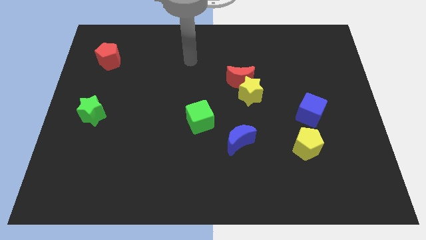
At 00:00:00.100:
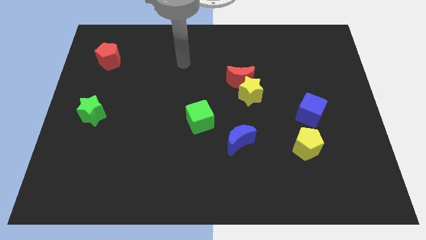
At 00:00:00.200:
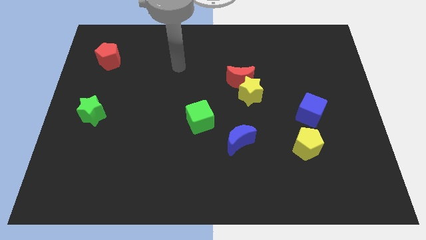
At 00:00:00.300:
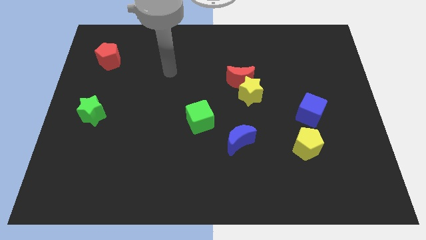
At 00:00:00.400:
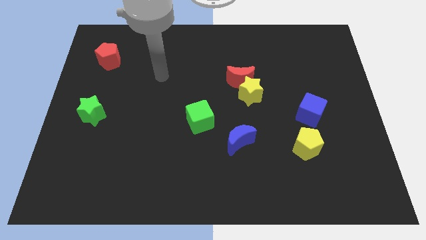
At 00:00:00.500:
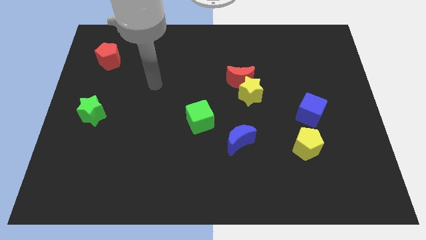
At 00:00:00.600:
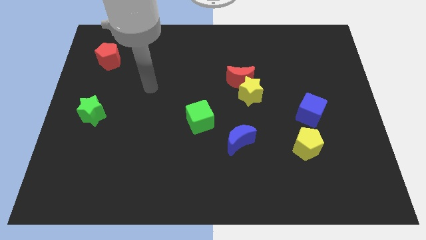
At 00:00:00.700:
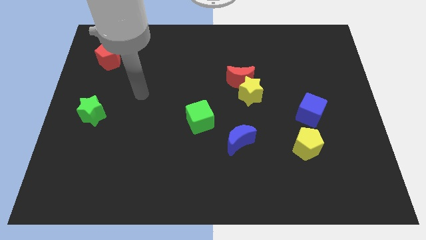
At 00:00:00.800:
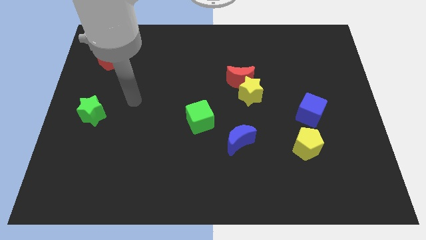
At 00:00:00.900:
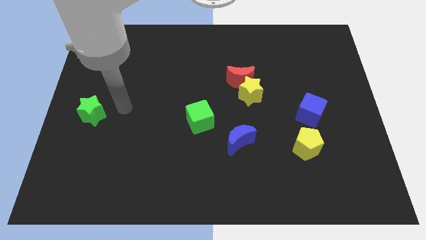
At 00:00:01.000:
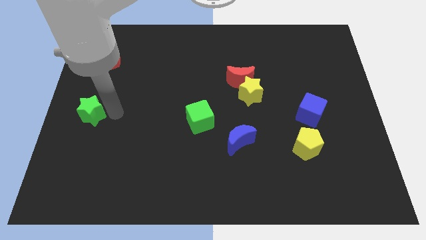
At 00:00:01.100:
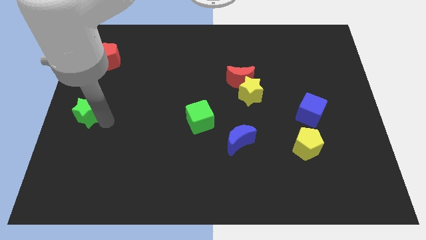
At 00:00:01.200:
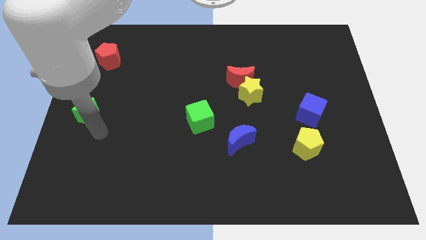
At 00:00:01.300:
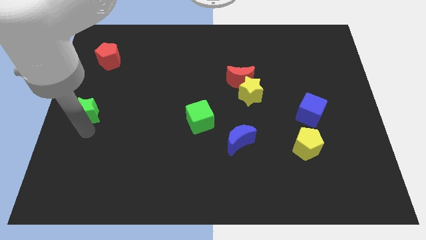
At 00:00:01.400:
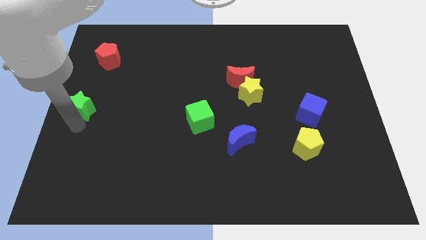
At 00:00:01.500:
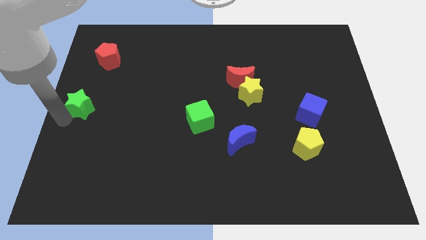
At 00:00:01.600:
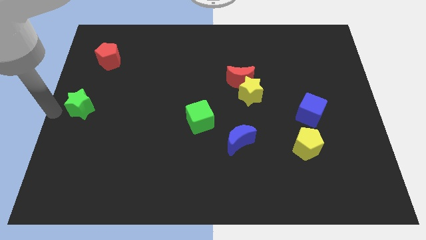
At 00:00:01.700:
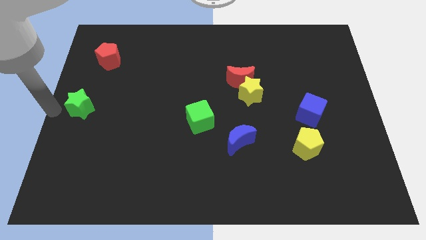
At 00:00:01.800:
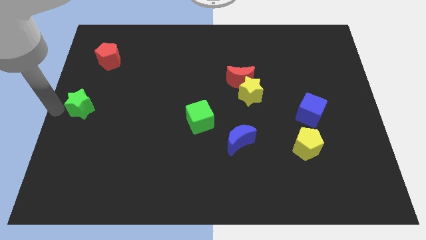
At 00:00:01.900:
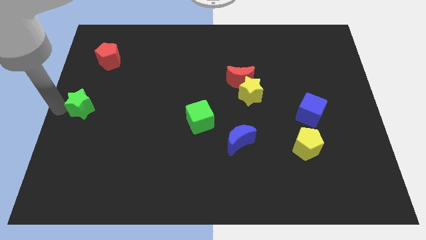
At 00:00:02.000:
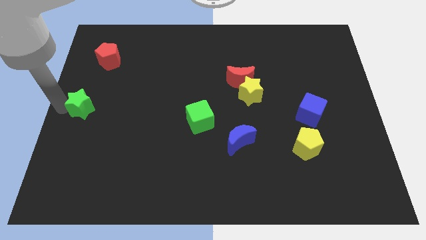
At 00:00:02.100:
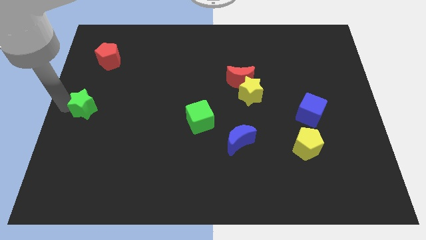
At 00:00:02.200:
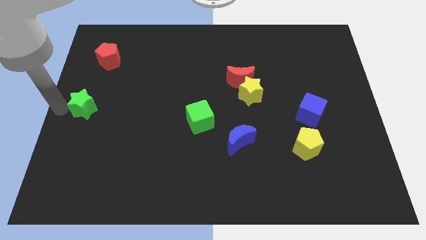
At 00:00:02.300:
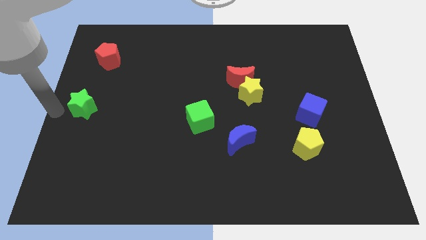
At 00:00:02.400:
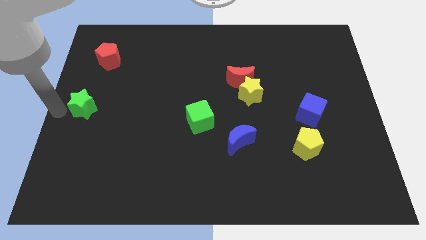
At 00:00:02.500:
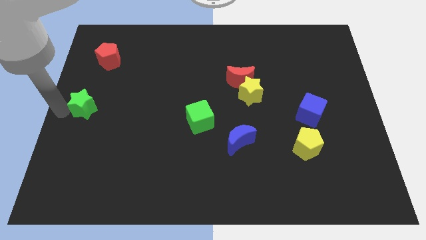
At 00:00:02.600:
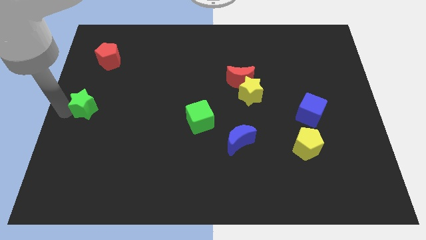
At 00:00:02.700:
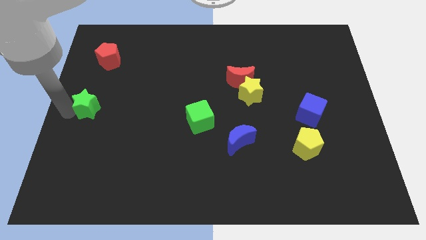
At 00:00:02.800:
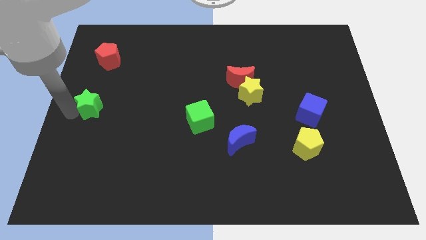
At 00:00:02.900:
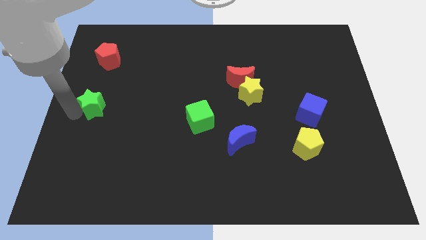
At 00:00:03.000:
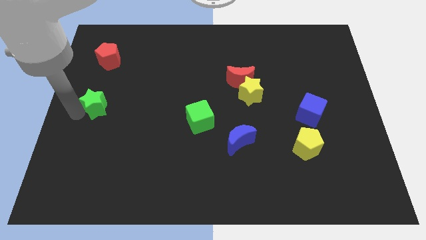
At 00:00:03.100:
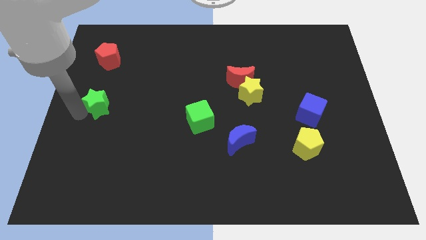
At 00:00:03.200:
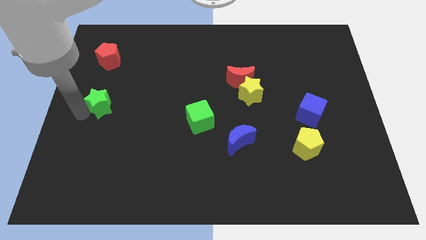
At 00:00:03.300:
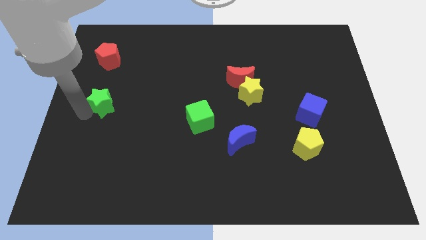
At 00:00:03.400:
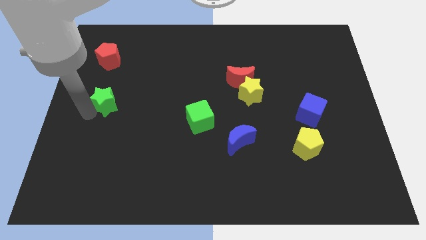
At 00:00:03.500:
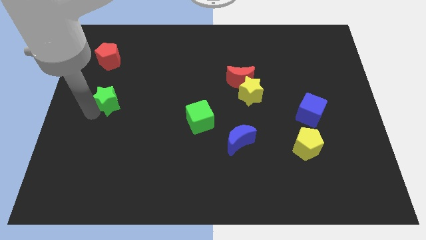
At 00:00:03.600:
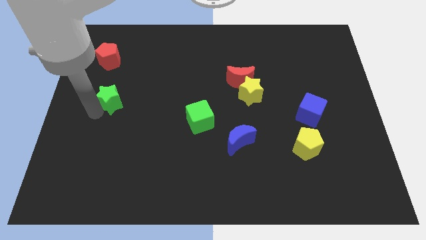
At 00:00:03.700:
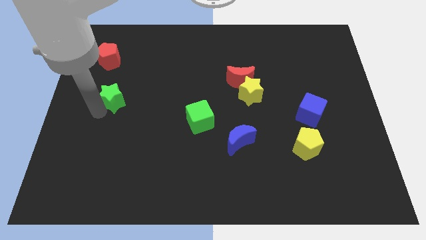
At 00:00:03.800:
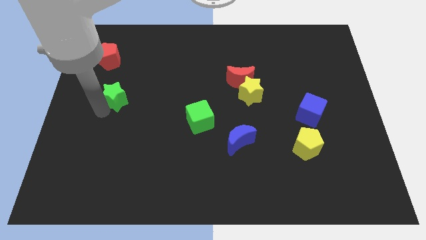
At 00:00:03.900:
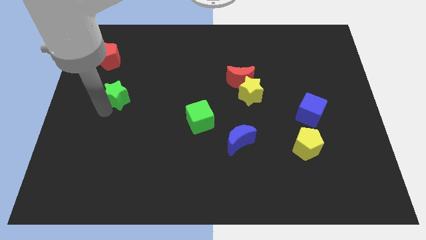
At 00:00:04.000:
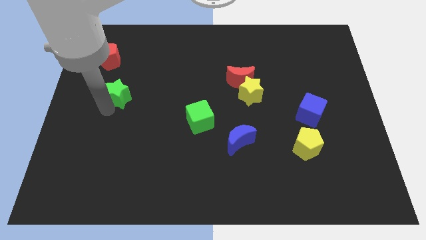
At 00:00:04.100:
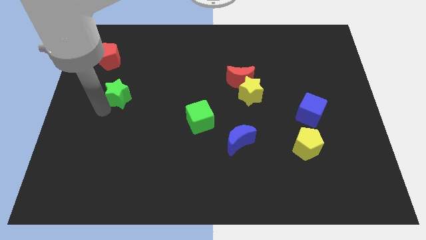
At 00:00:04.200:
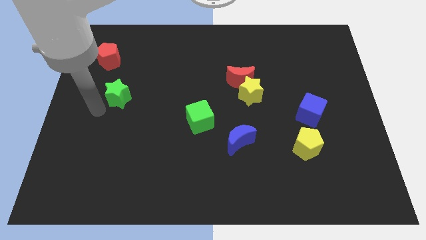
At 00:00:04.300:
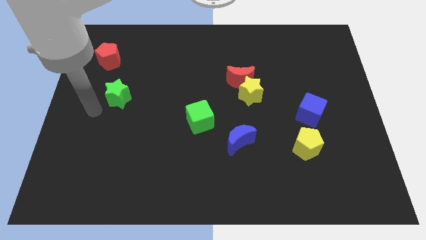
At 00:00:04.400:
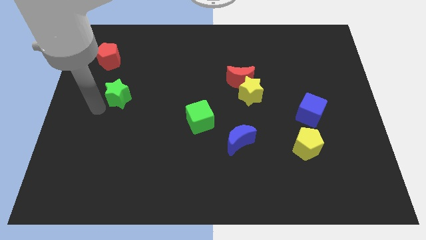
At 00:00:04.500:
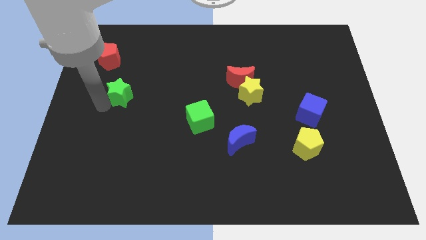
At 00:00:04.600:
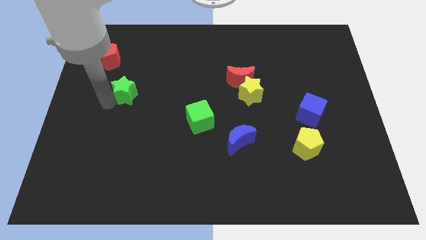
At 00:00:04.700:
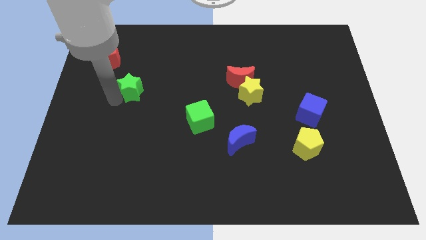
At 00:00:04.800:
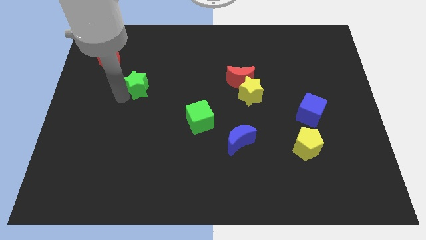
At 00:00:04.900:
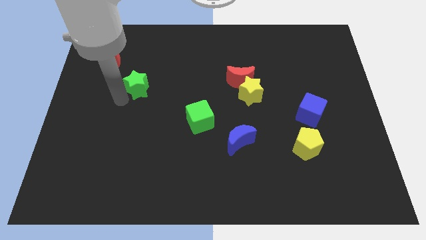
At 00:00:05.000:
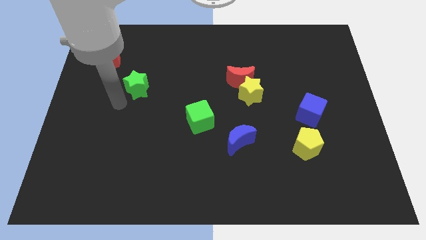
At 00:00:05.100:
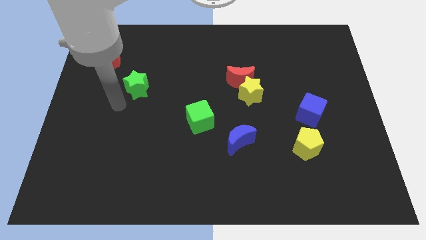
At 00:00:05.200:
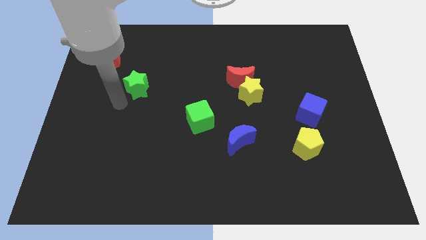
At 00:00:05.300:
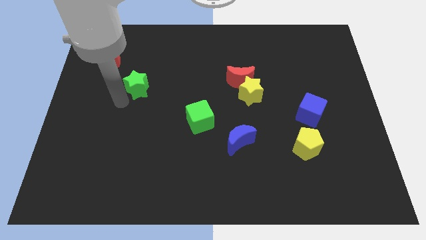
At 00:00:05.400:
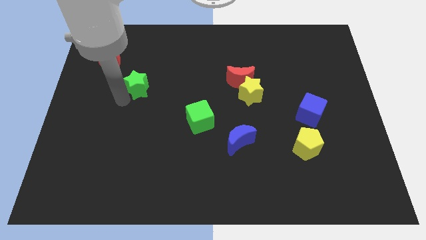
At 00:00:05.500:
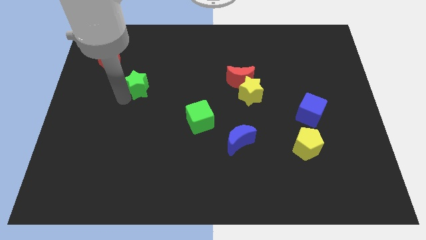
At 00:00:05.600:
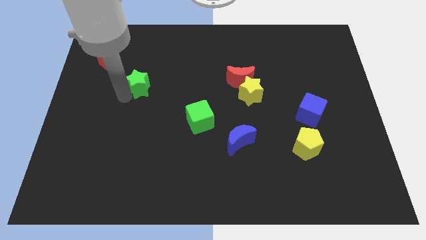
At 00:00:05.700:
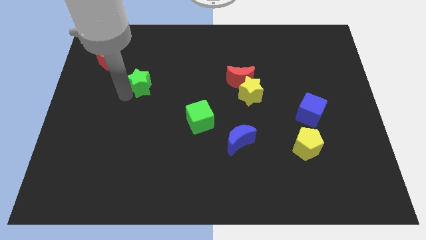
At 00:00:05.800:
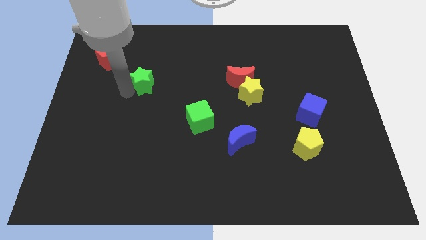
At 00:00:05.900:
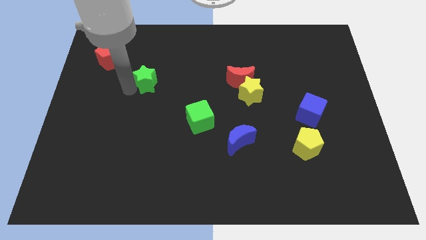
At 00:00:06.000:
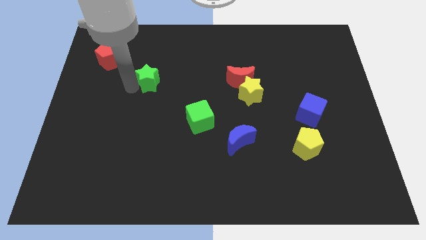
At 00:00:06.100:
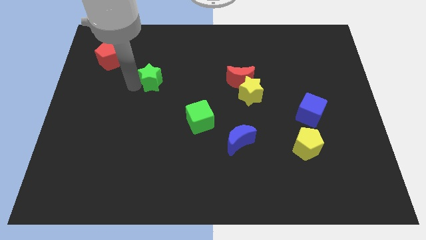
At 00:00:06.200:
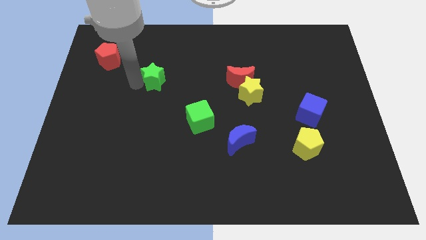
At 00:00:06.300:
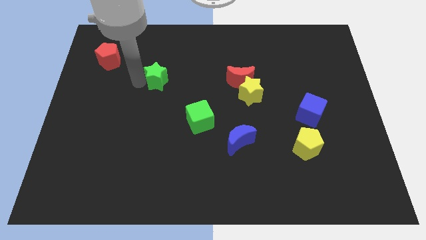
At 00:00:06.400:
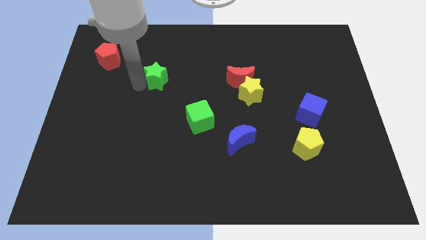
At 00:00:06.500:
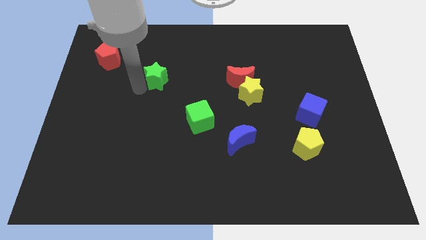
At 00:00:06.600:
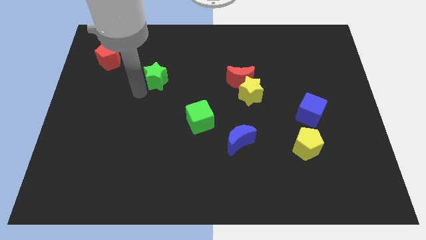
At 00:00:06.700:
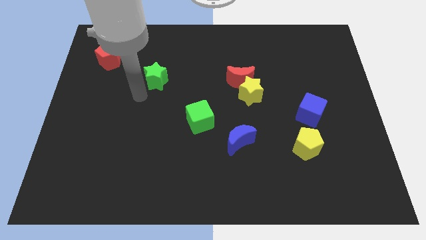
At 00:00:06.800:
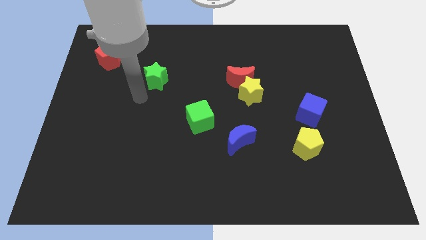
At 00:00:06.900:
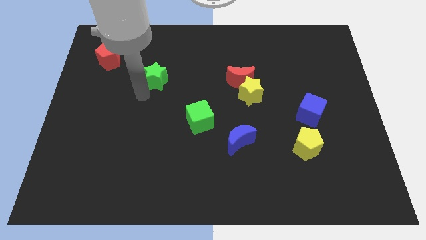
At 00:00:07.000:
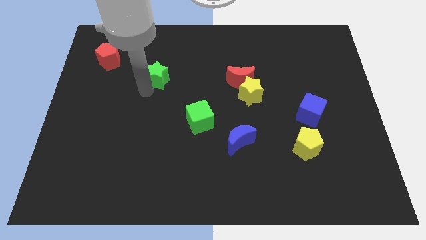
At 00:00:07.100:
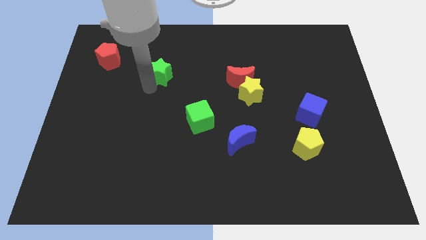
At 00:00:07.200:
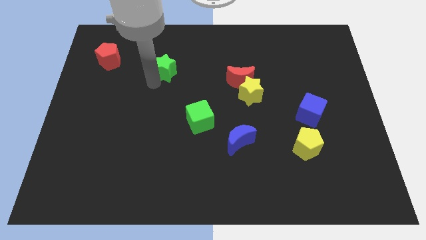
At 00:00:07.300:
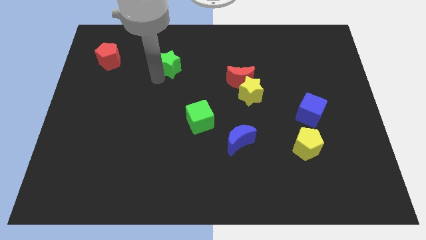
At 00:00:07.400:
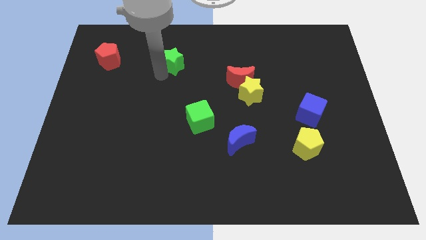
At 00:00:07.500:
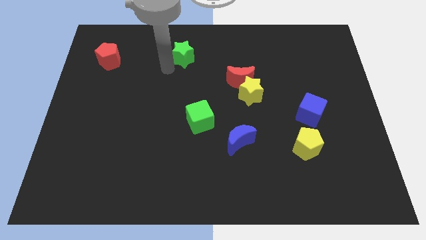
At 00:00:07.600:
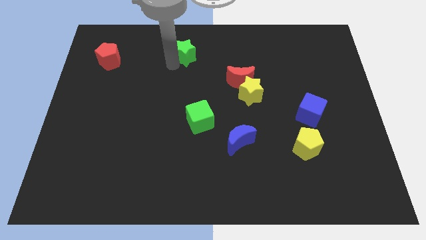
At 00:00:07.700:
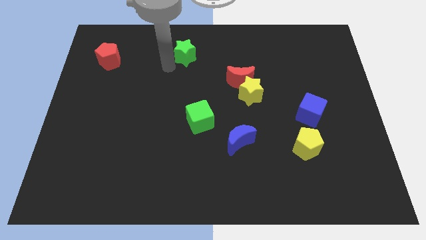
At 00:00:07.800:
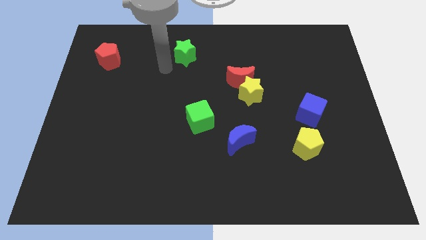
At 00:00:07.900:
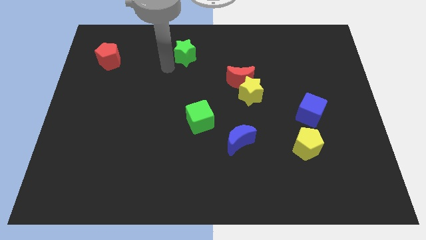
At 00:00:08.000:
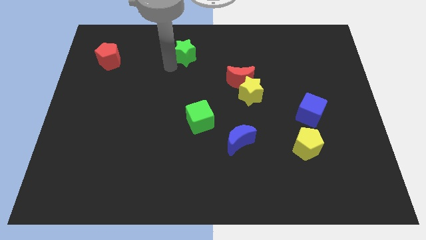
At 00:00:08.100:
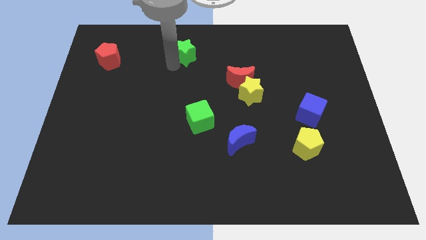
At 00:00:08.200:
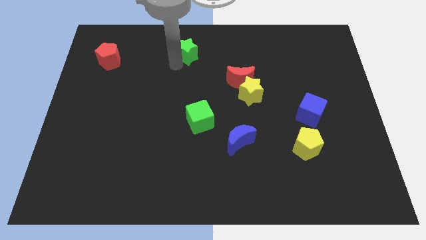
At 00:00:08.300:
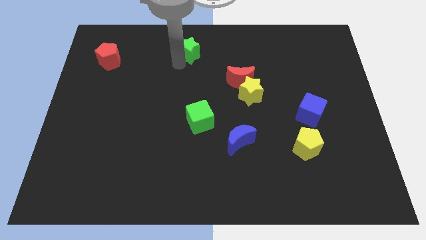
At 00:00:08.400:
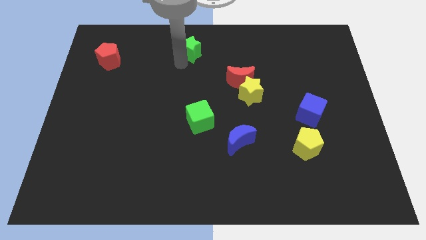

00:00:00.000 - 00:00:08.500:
move the green star to the top side
